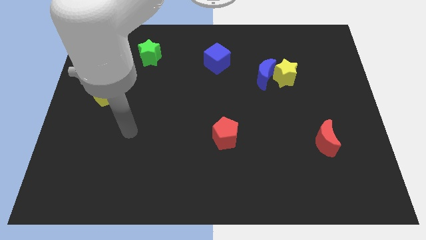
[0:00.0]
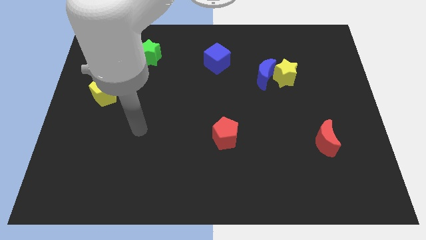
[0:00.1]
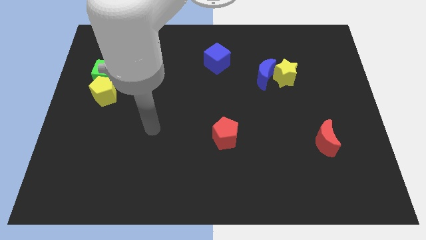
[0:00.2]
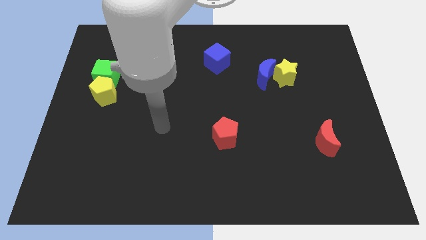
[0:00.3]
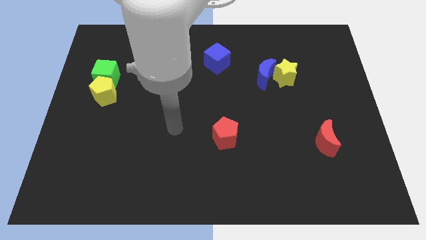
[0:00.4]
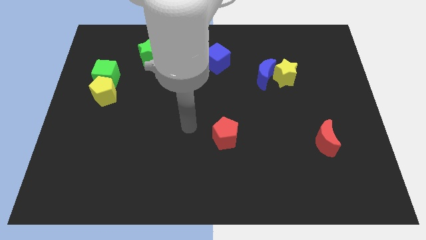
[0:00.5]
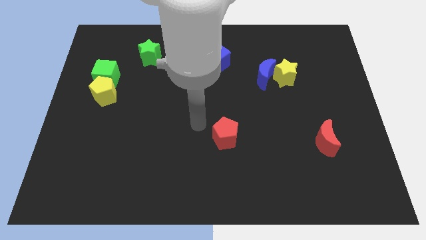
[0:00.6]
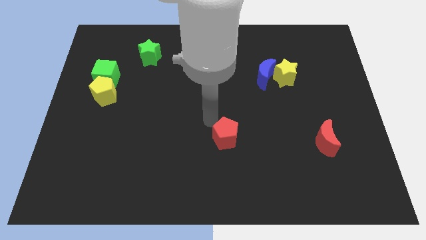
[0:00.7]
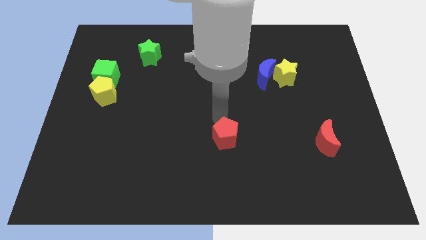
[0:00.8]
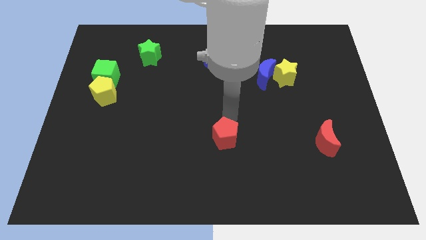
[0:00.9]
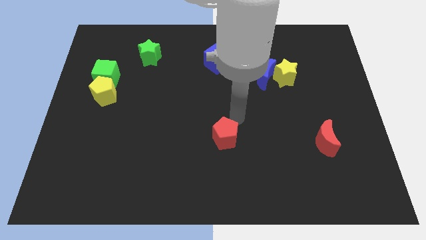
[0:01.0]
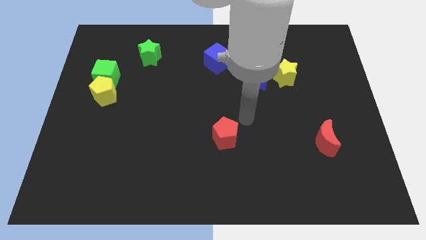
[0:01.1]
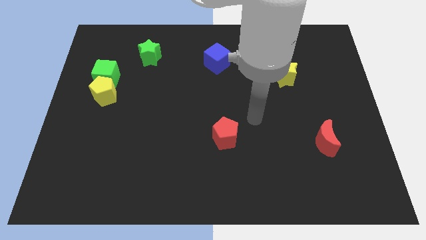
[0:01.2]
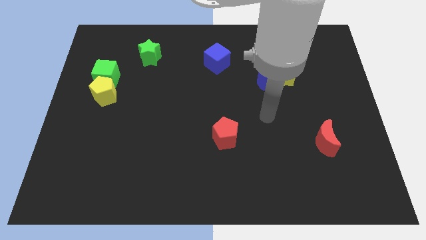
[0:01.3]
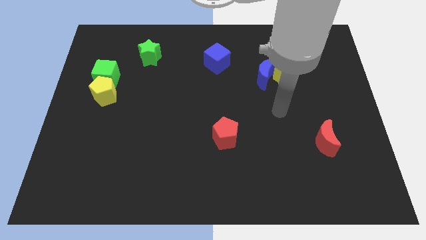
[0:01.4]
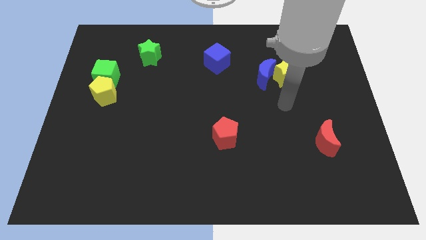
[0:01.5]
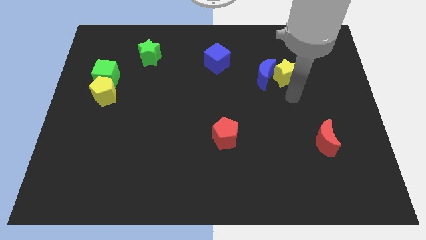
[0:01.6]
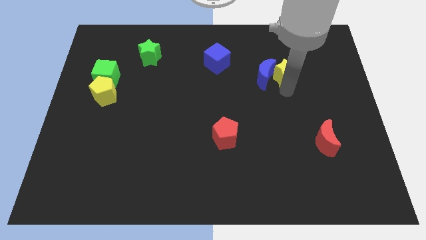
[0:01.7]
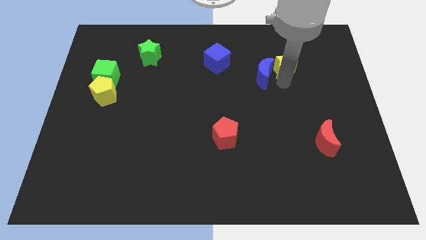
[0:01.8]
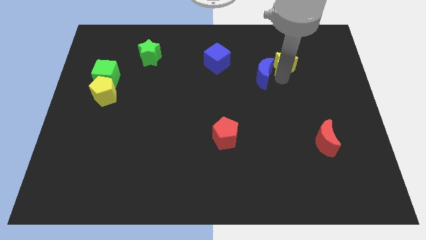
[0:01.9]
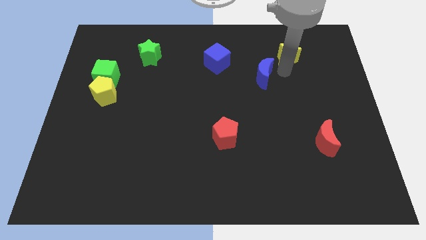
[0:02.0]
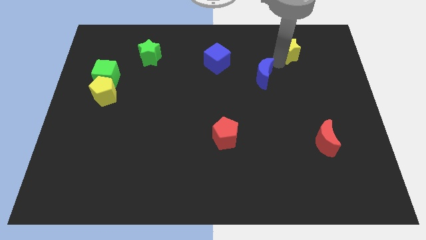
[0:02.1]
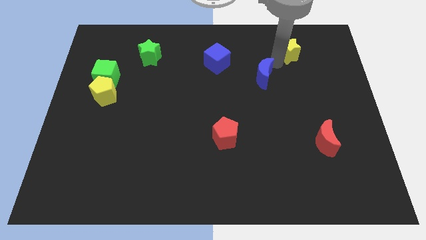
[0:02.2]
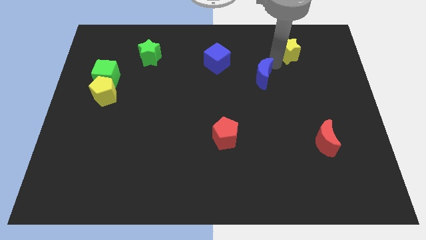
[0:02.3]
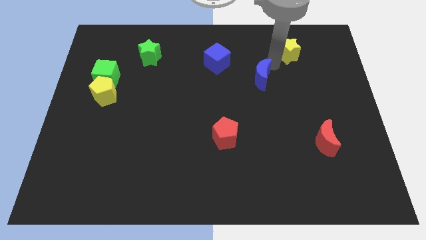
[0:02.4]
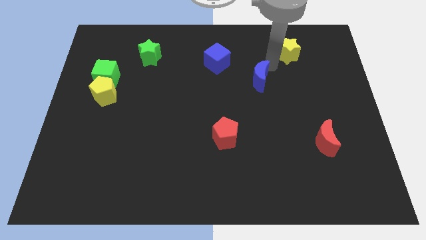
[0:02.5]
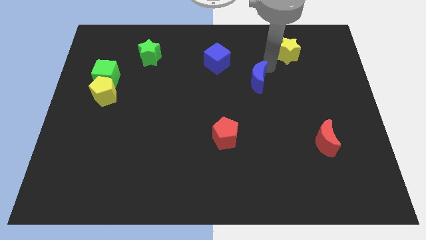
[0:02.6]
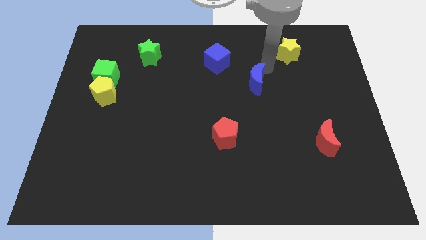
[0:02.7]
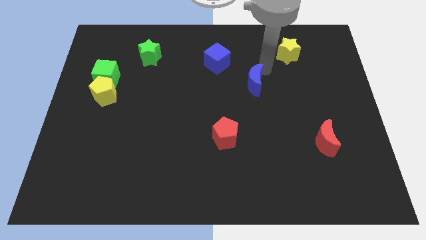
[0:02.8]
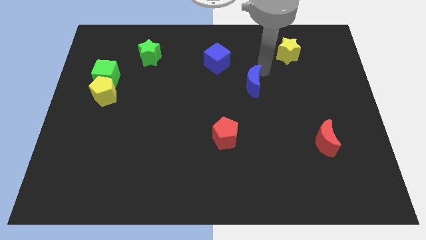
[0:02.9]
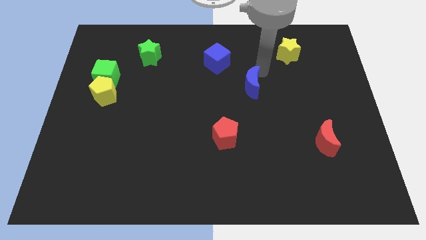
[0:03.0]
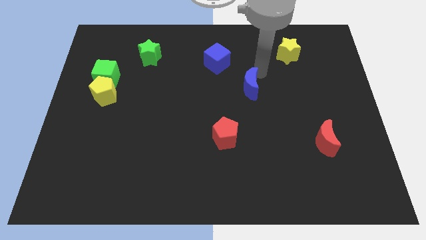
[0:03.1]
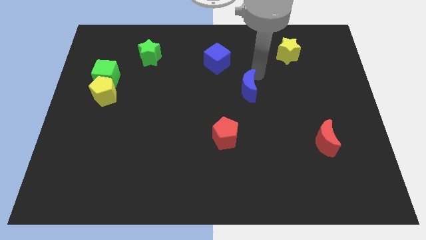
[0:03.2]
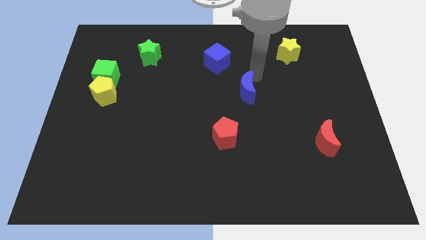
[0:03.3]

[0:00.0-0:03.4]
push the blue moon a little downwards and to the left diagonally

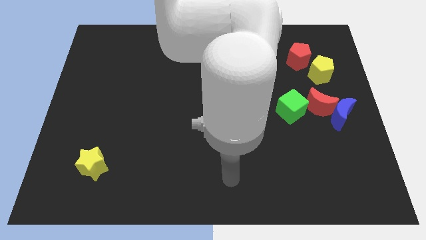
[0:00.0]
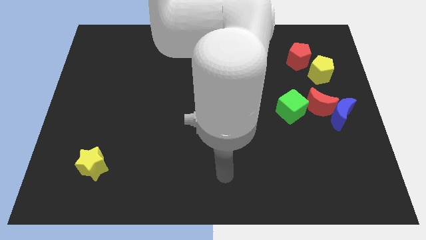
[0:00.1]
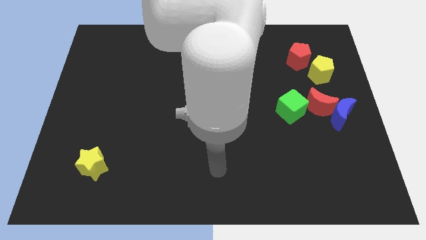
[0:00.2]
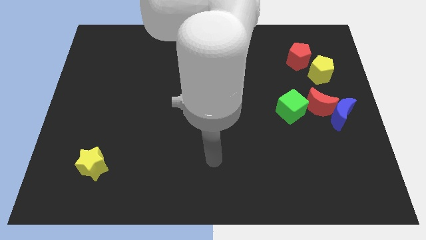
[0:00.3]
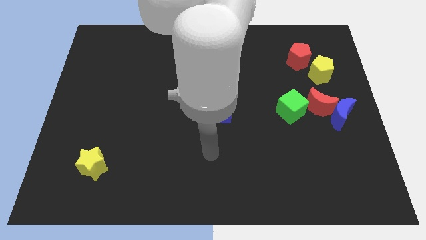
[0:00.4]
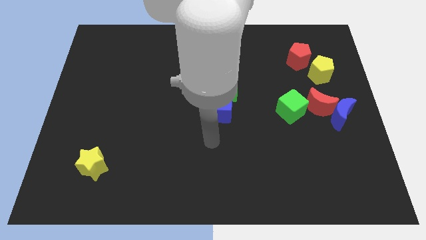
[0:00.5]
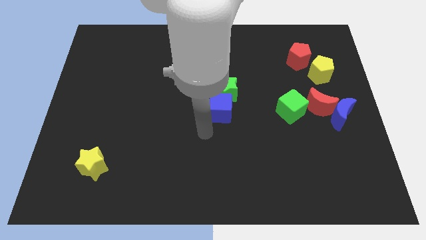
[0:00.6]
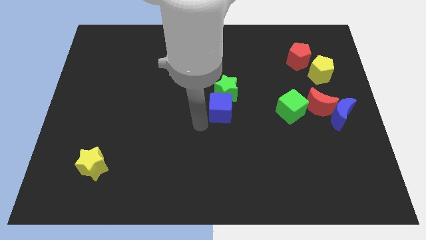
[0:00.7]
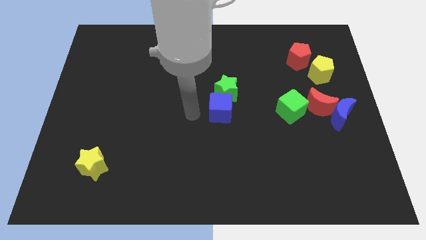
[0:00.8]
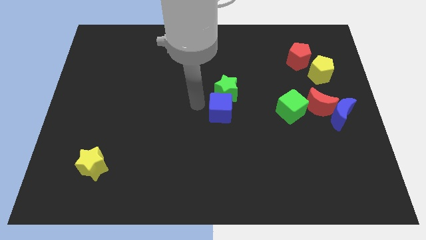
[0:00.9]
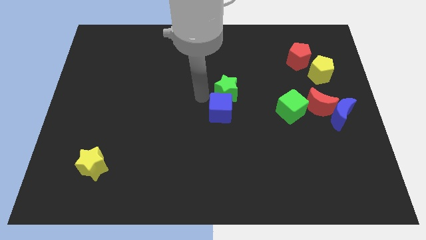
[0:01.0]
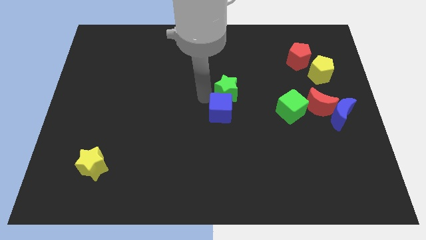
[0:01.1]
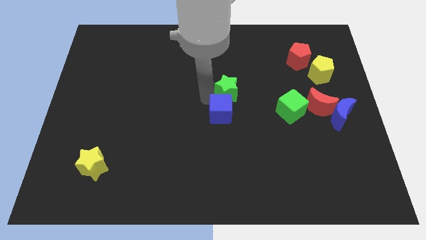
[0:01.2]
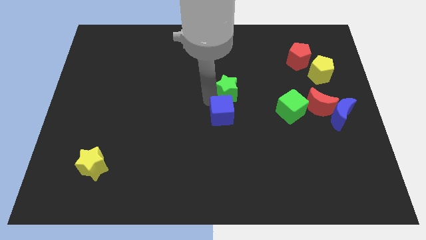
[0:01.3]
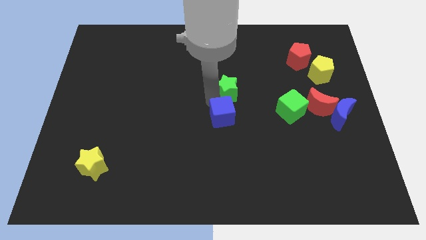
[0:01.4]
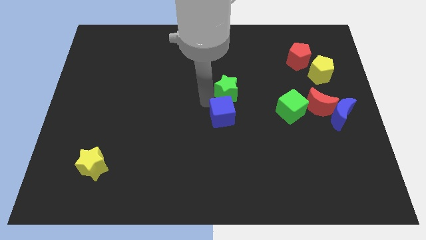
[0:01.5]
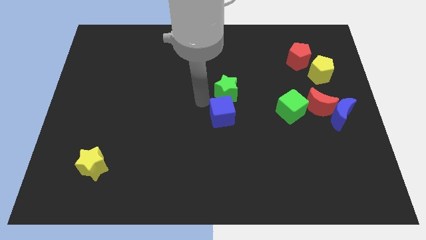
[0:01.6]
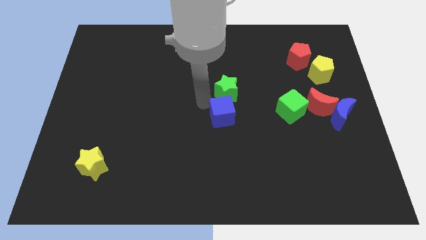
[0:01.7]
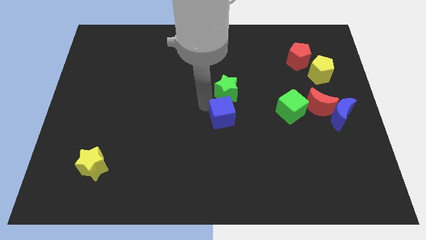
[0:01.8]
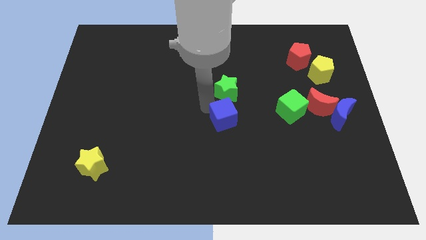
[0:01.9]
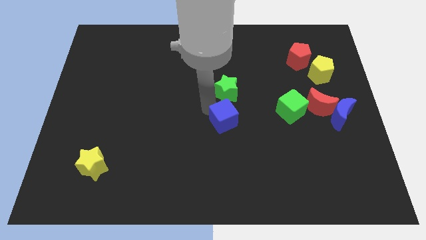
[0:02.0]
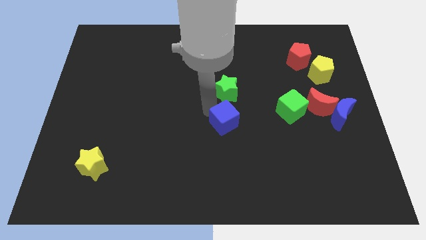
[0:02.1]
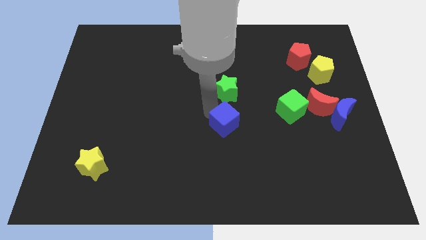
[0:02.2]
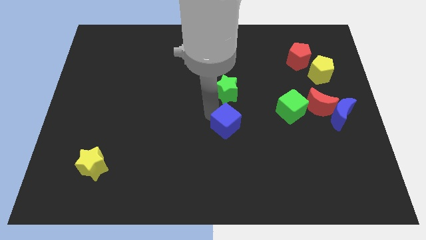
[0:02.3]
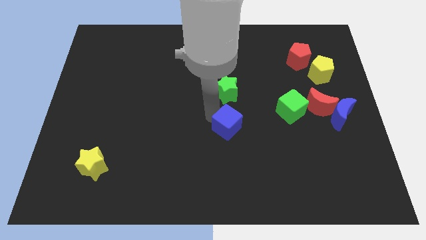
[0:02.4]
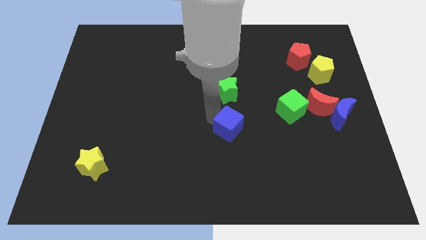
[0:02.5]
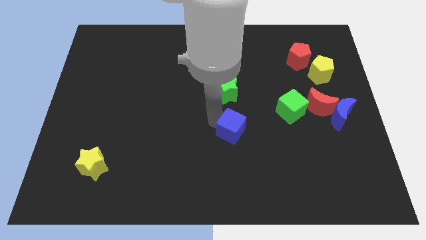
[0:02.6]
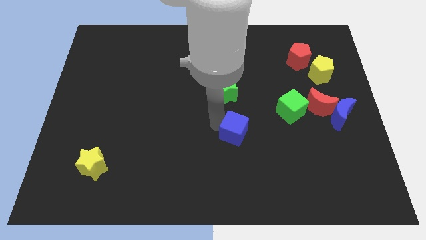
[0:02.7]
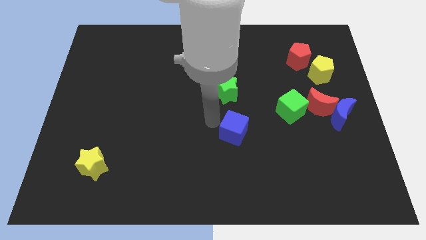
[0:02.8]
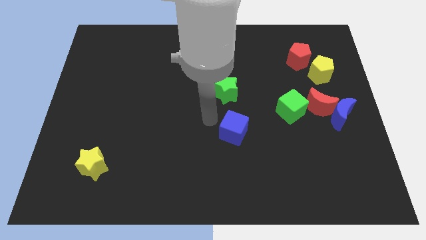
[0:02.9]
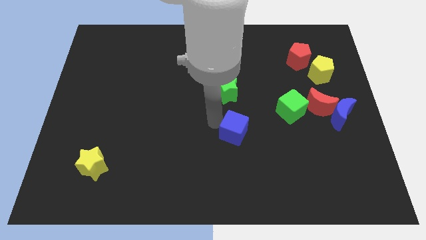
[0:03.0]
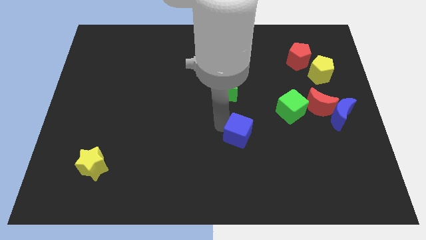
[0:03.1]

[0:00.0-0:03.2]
slide the blue cube downwards and to the right diagonally a little

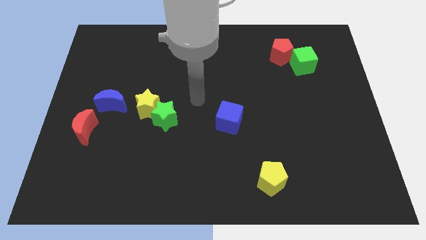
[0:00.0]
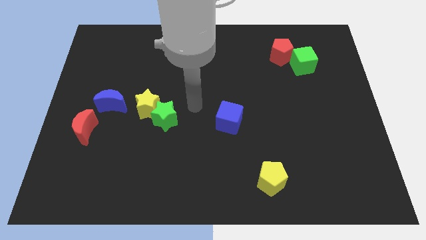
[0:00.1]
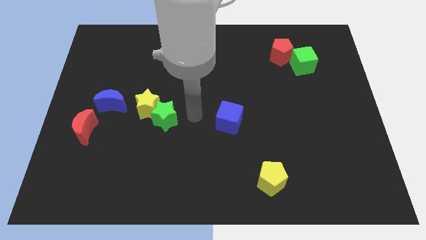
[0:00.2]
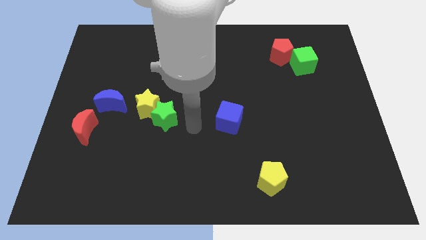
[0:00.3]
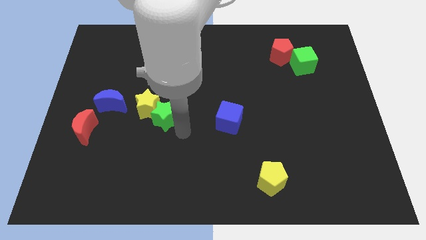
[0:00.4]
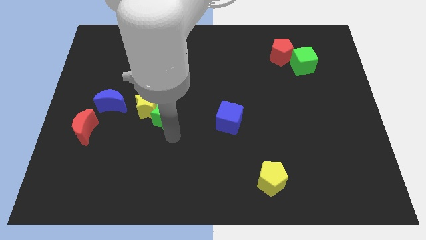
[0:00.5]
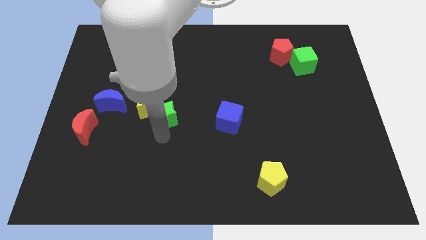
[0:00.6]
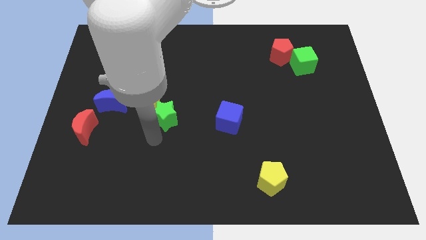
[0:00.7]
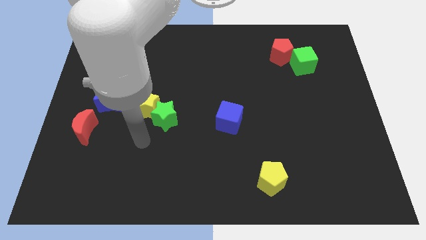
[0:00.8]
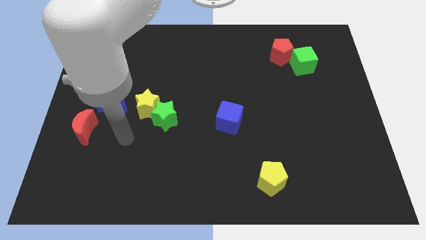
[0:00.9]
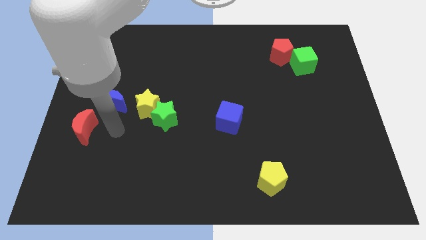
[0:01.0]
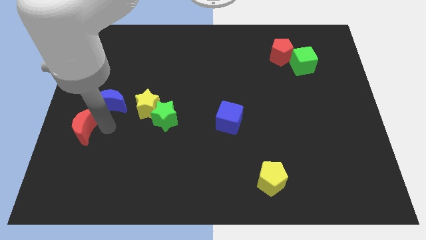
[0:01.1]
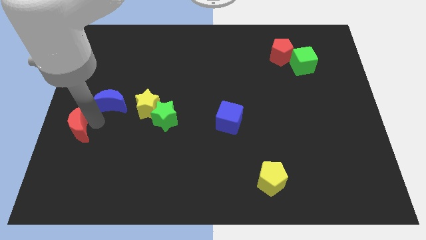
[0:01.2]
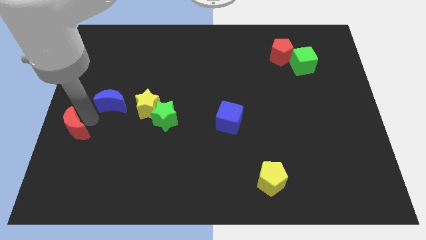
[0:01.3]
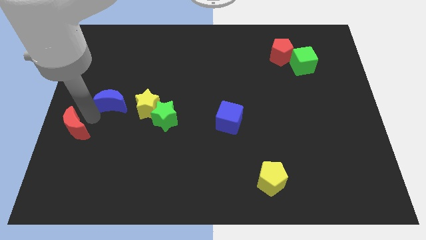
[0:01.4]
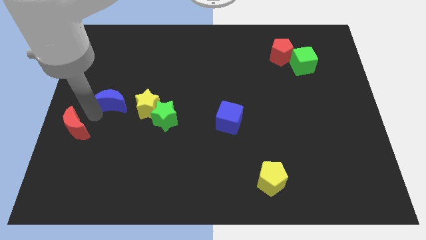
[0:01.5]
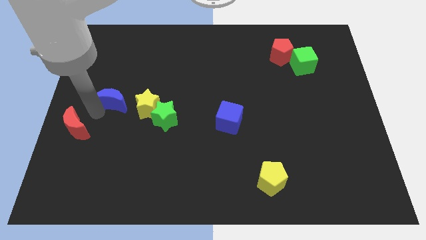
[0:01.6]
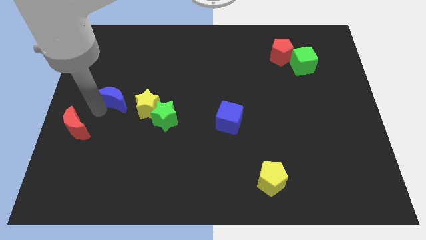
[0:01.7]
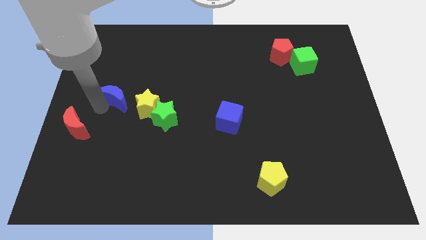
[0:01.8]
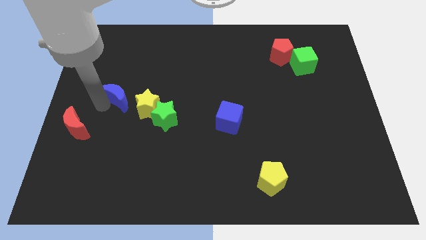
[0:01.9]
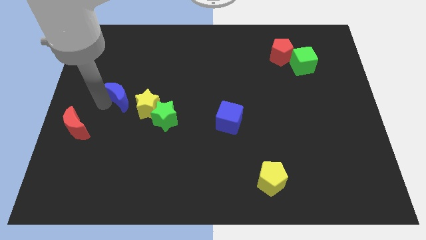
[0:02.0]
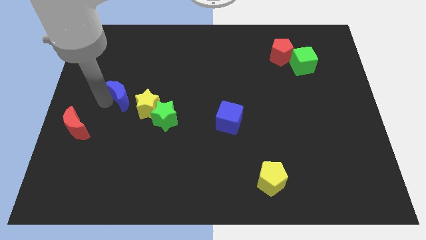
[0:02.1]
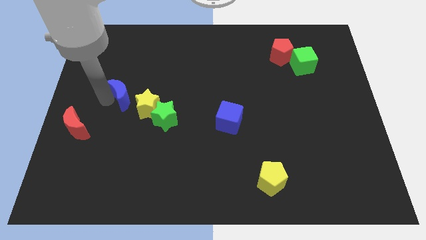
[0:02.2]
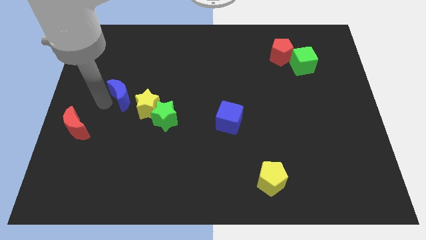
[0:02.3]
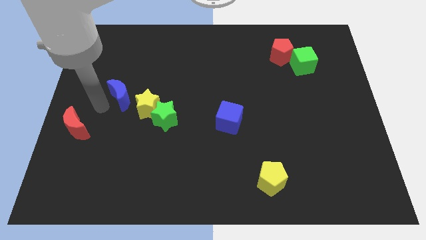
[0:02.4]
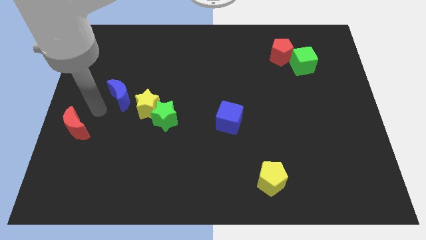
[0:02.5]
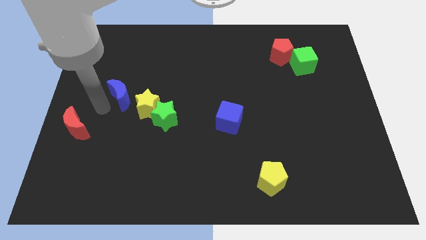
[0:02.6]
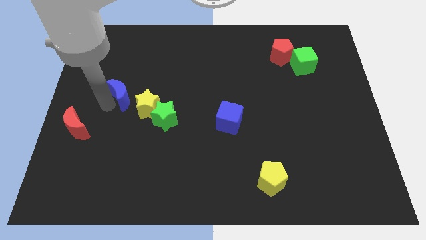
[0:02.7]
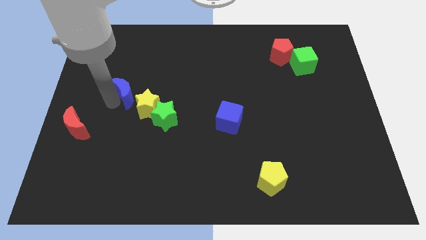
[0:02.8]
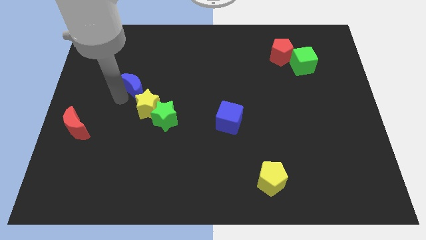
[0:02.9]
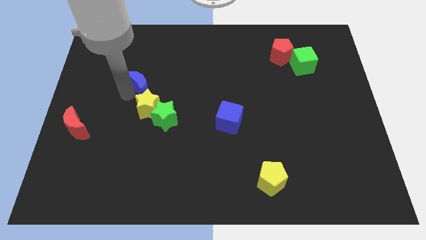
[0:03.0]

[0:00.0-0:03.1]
push the blue moon somewhat up and to the right diagonally
